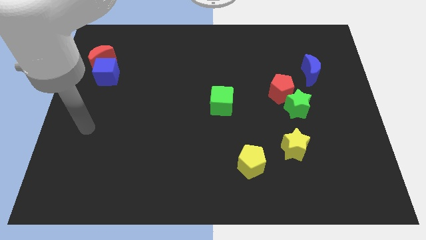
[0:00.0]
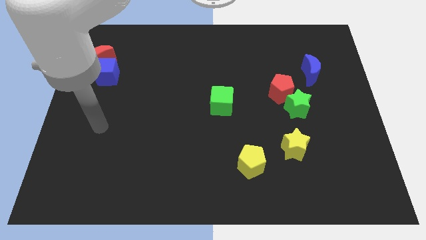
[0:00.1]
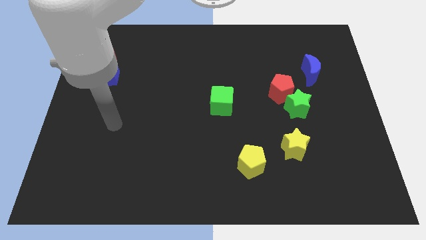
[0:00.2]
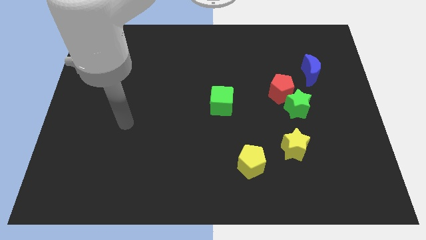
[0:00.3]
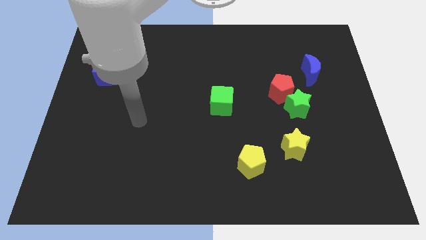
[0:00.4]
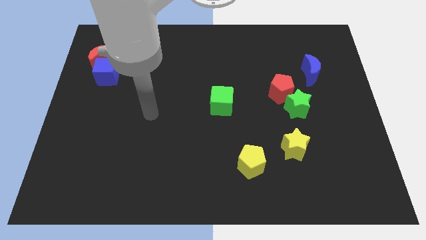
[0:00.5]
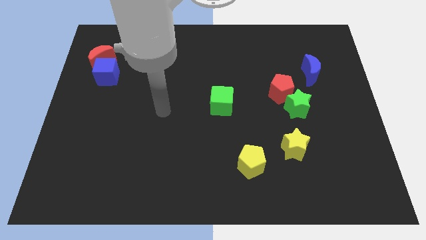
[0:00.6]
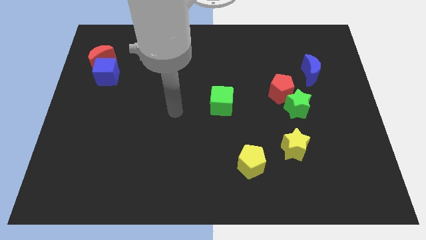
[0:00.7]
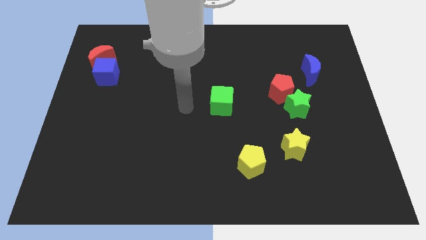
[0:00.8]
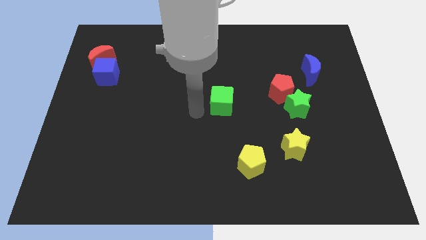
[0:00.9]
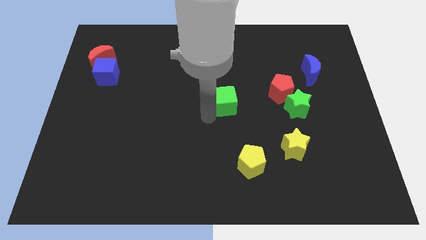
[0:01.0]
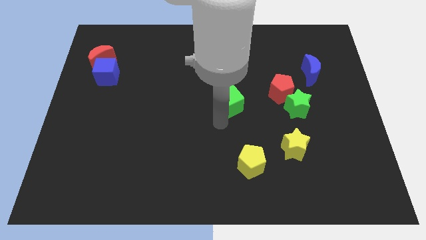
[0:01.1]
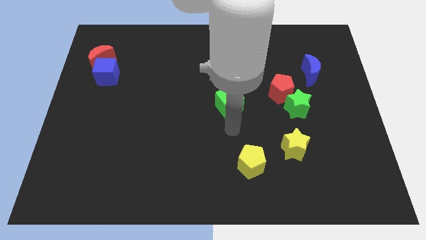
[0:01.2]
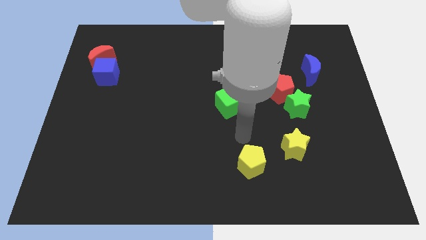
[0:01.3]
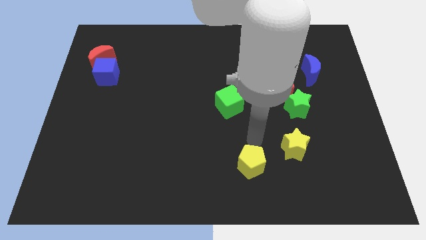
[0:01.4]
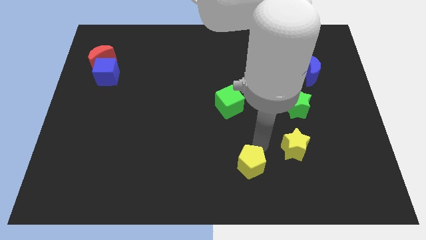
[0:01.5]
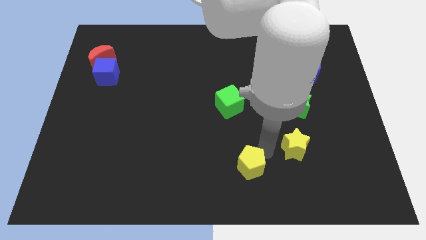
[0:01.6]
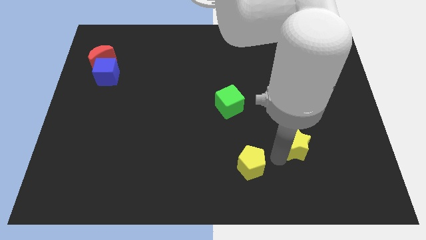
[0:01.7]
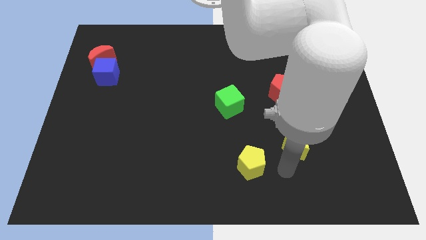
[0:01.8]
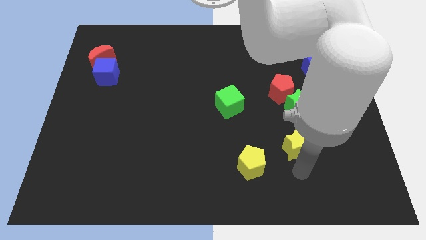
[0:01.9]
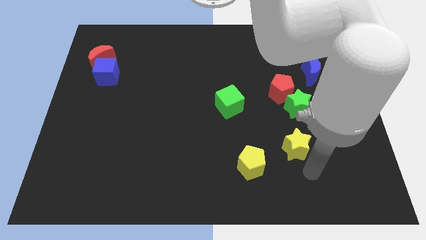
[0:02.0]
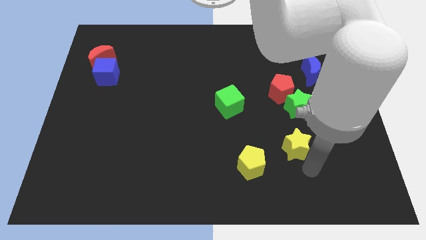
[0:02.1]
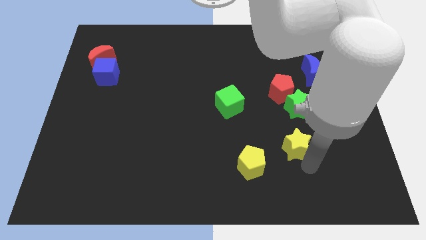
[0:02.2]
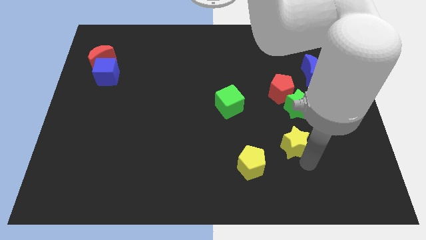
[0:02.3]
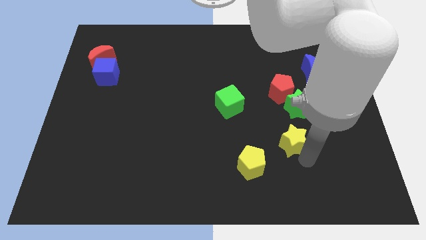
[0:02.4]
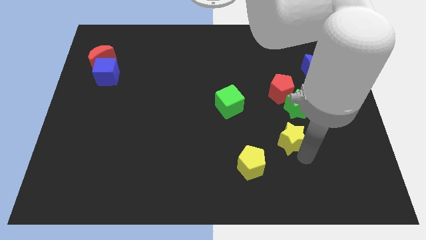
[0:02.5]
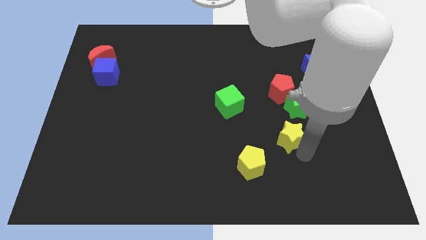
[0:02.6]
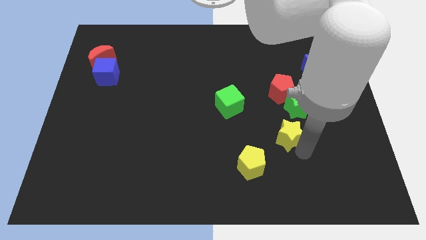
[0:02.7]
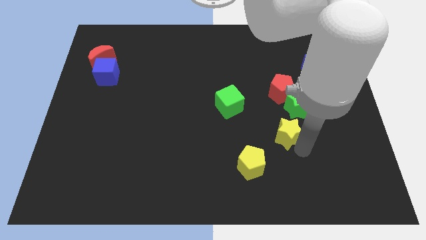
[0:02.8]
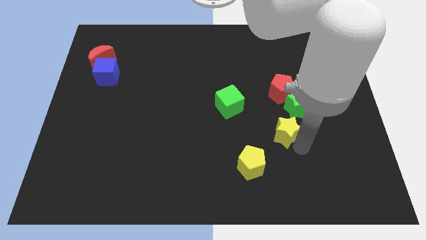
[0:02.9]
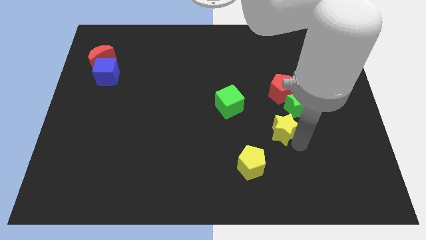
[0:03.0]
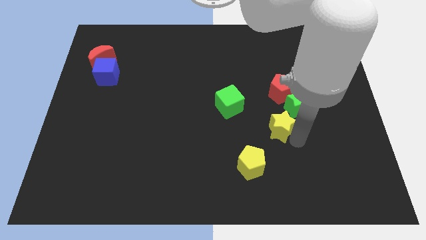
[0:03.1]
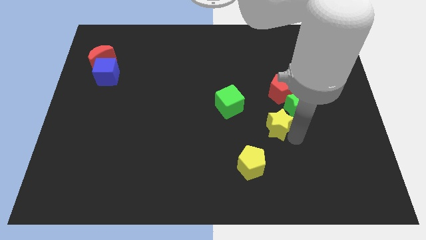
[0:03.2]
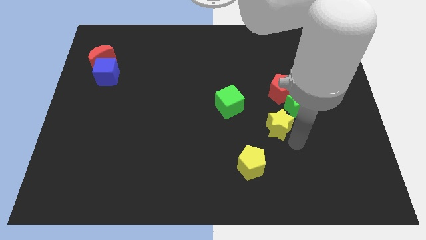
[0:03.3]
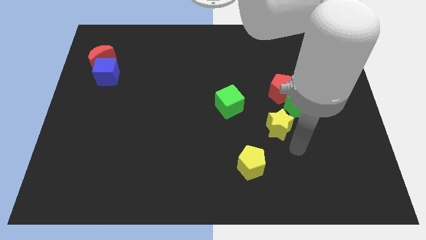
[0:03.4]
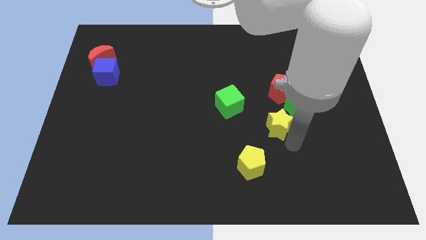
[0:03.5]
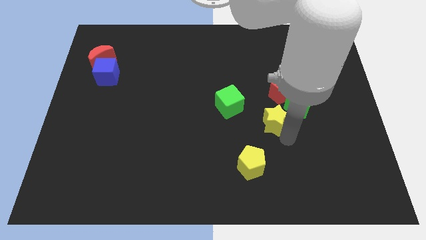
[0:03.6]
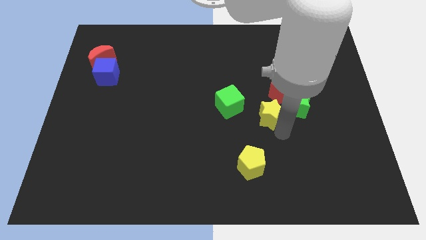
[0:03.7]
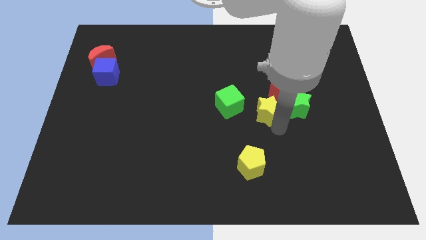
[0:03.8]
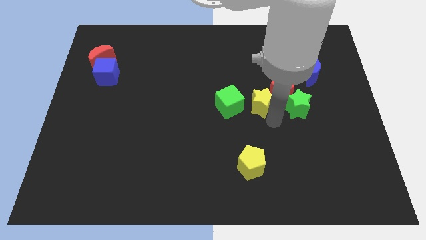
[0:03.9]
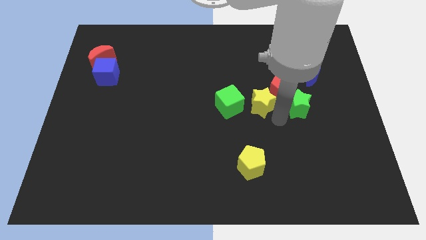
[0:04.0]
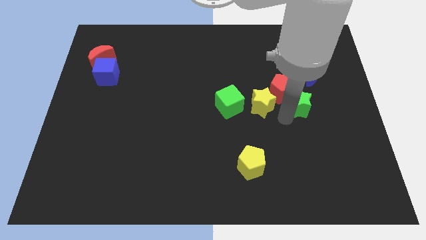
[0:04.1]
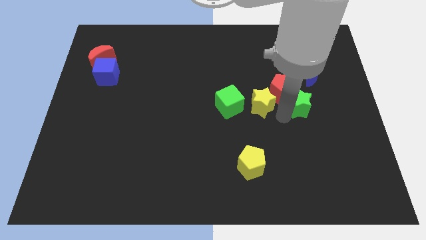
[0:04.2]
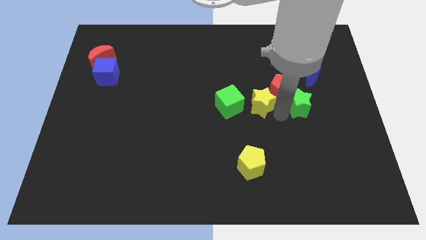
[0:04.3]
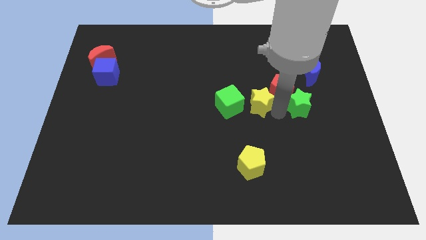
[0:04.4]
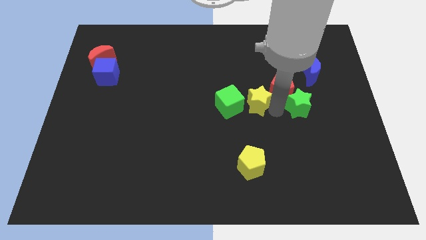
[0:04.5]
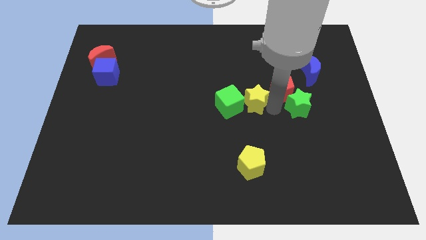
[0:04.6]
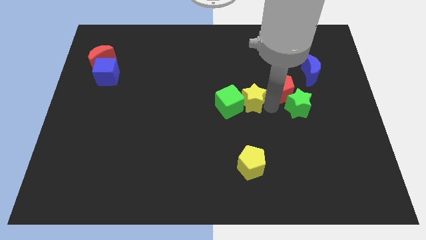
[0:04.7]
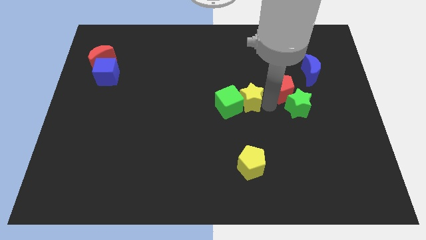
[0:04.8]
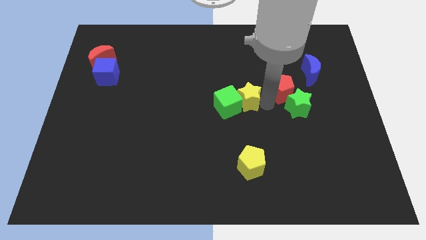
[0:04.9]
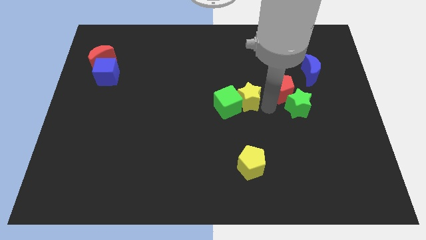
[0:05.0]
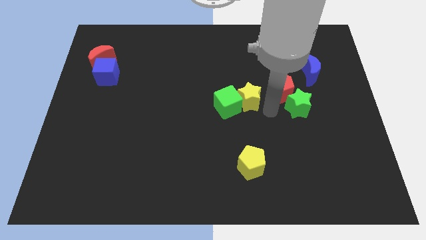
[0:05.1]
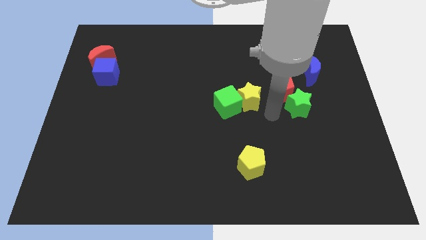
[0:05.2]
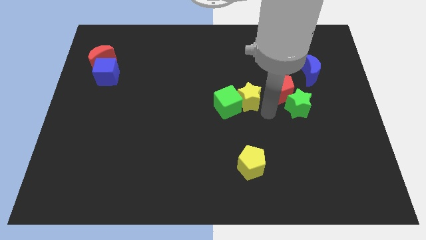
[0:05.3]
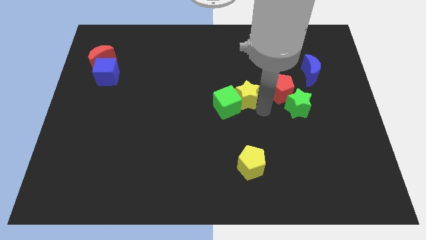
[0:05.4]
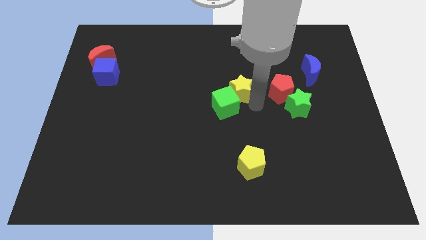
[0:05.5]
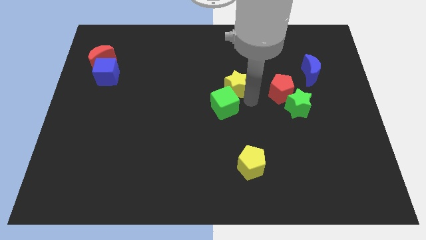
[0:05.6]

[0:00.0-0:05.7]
move the yellow star diagonally upwards and left

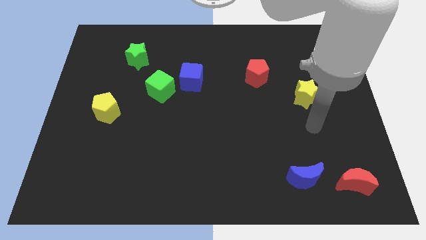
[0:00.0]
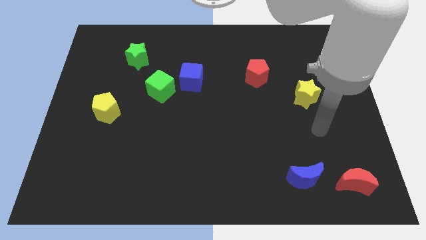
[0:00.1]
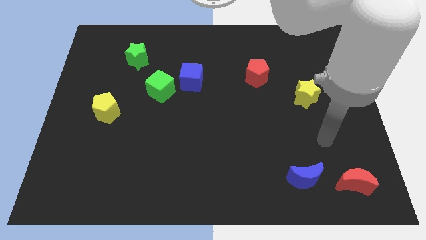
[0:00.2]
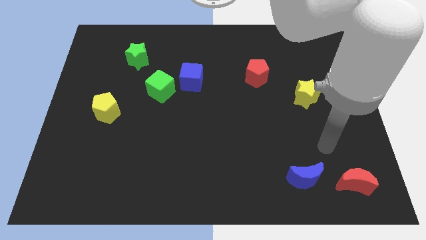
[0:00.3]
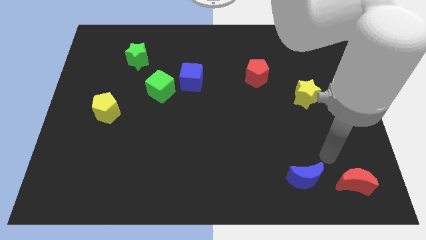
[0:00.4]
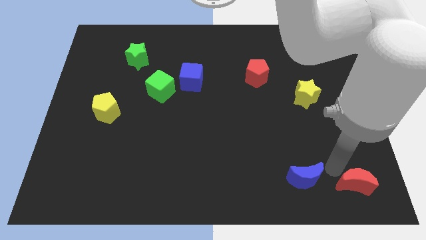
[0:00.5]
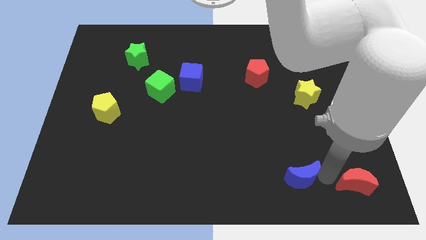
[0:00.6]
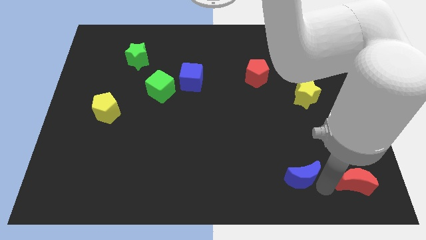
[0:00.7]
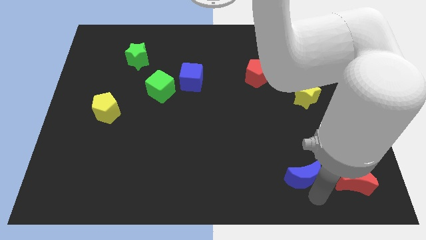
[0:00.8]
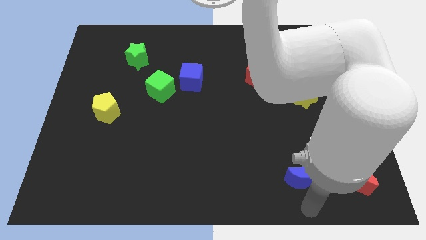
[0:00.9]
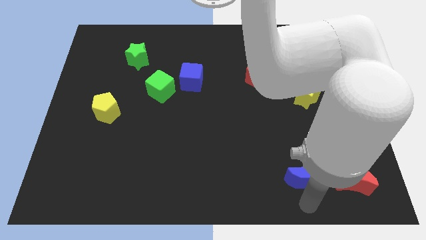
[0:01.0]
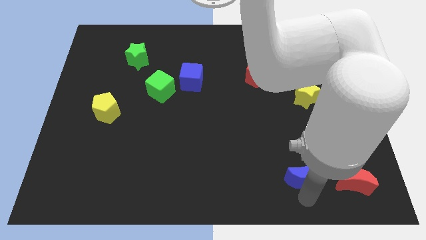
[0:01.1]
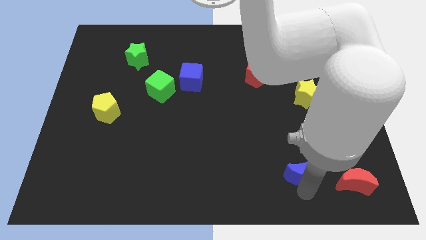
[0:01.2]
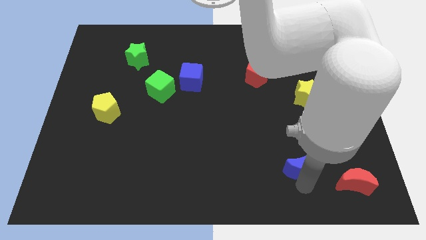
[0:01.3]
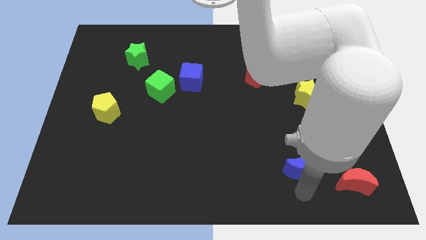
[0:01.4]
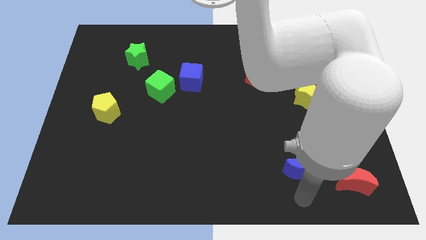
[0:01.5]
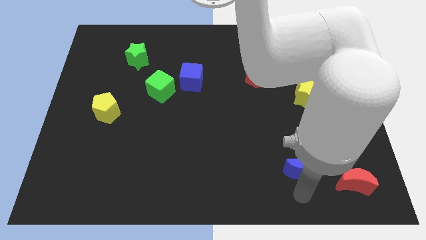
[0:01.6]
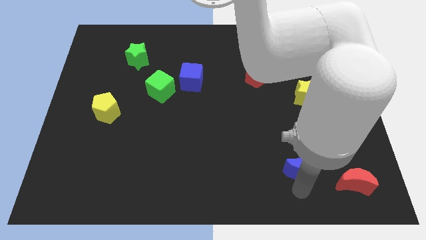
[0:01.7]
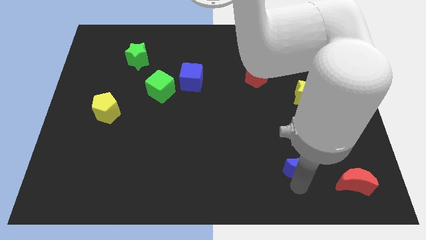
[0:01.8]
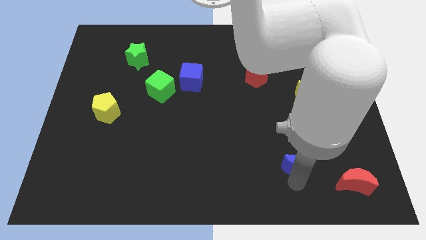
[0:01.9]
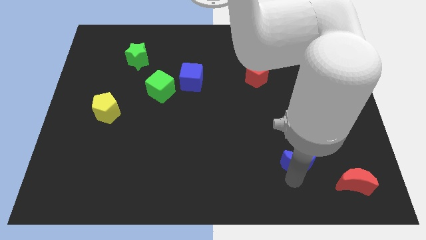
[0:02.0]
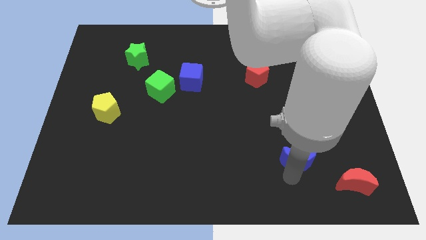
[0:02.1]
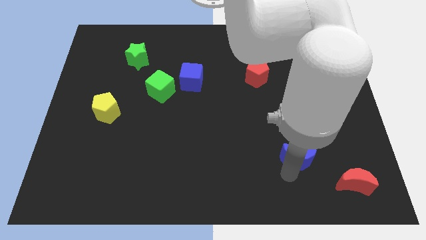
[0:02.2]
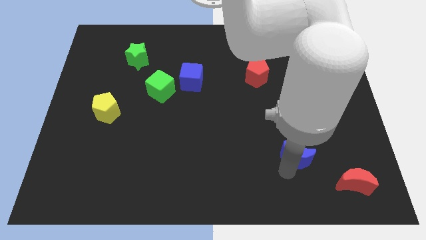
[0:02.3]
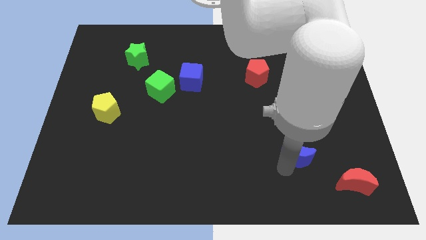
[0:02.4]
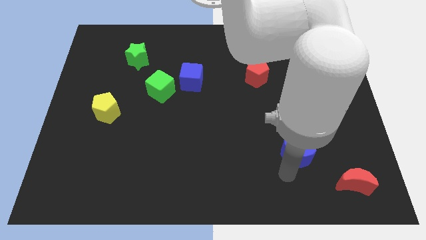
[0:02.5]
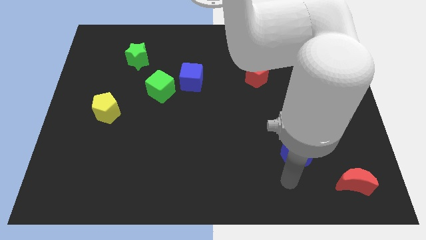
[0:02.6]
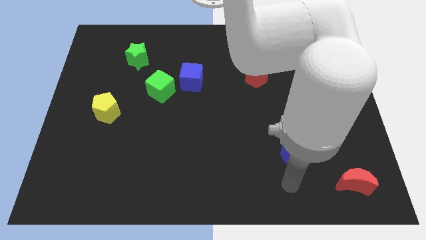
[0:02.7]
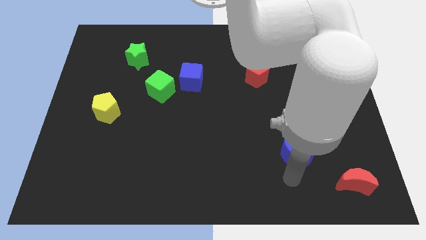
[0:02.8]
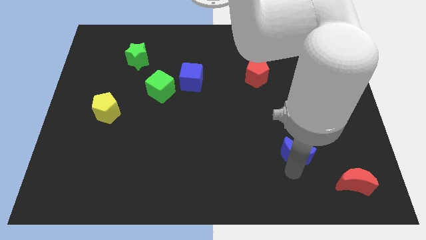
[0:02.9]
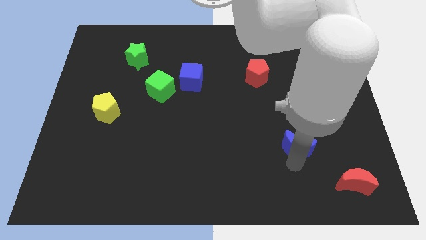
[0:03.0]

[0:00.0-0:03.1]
push the blue moon upwards a bit
